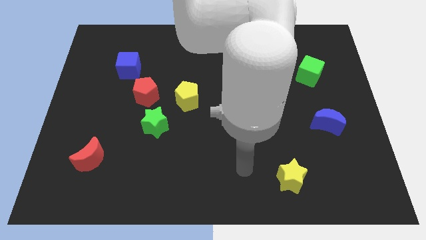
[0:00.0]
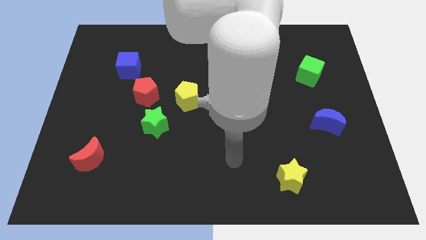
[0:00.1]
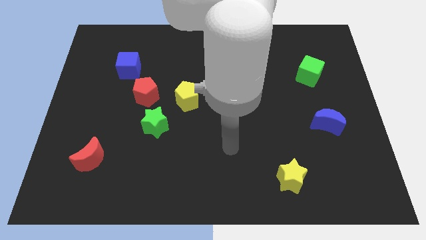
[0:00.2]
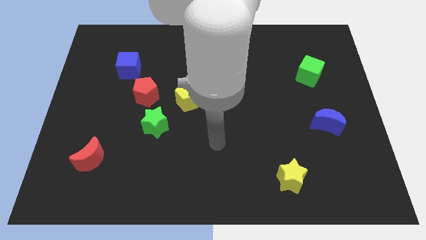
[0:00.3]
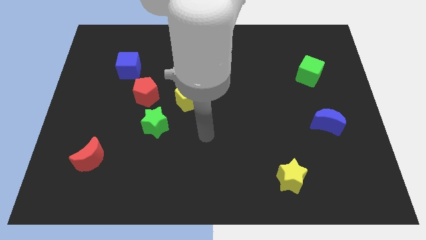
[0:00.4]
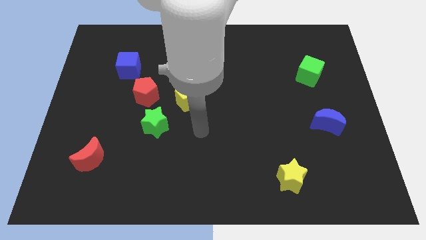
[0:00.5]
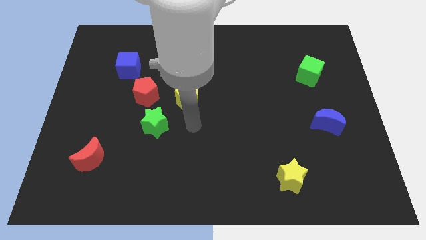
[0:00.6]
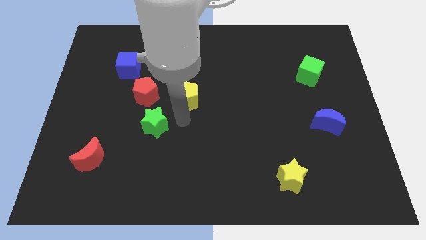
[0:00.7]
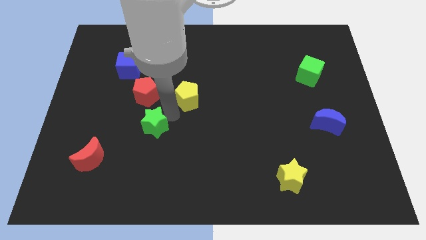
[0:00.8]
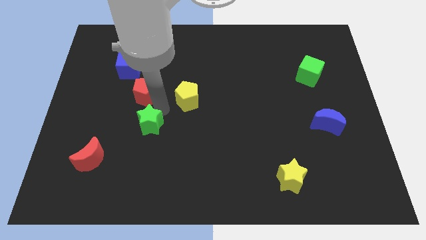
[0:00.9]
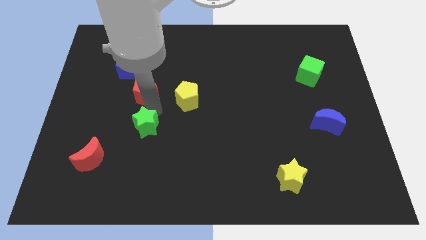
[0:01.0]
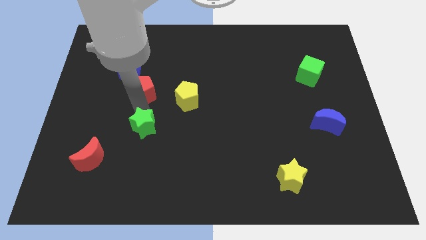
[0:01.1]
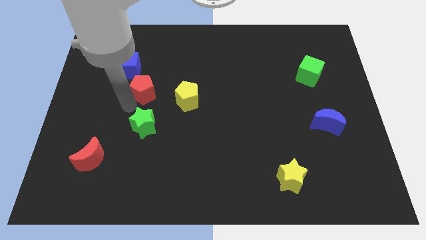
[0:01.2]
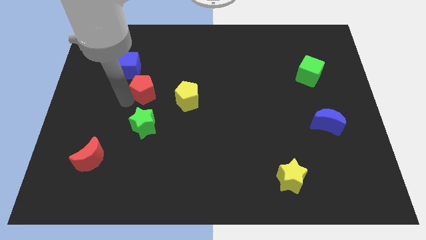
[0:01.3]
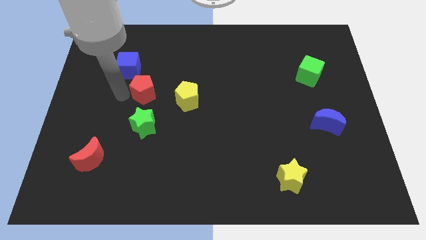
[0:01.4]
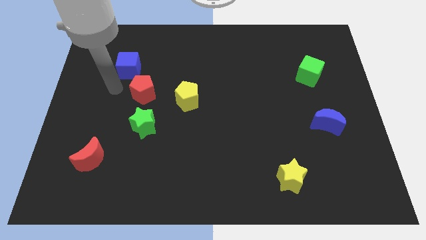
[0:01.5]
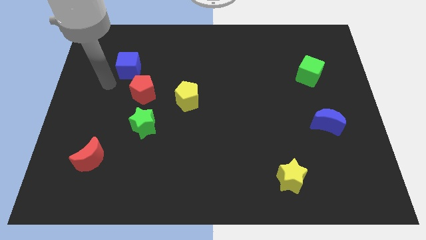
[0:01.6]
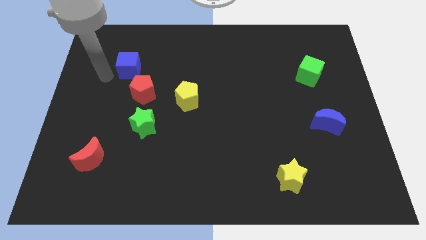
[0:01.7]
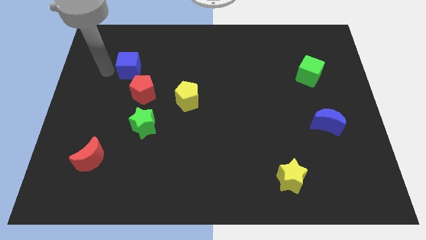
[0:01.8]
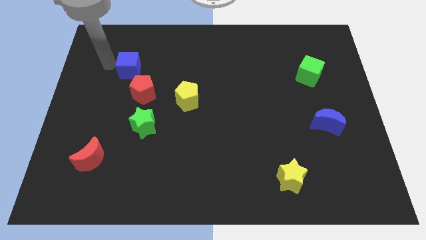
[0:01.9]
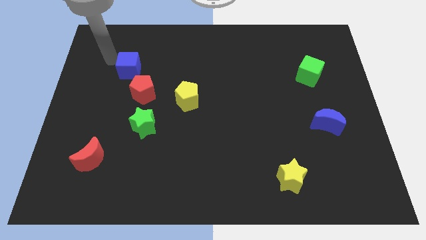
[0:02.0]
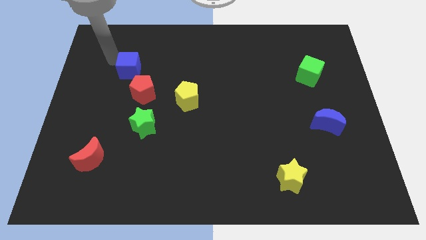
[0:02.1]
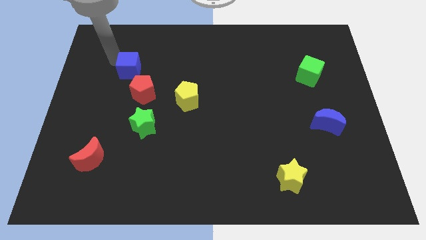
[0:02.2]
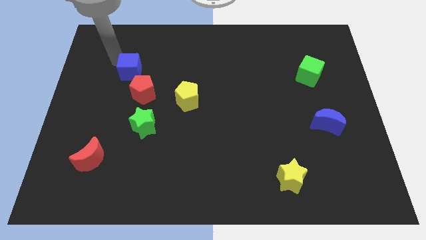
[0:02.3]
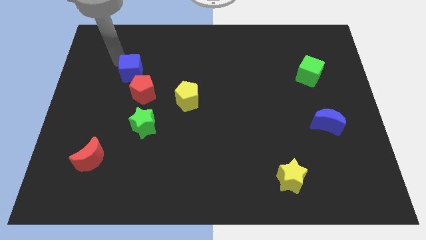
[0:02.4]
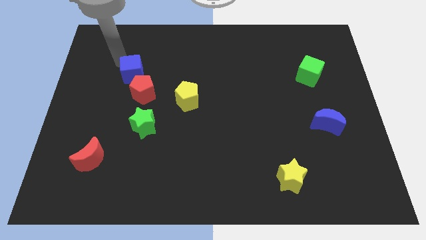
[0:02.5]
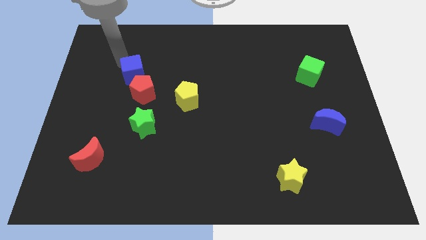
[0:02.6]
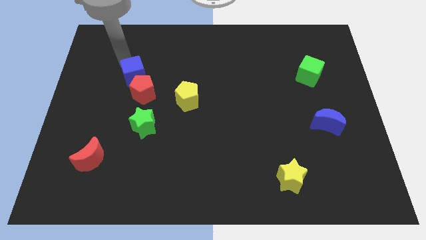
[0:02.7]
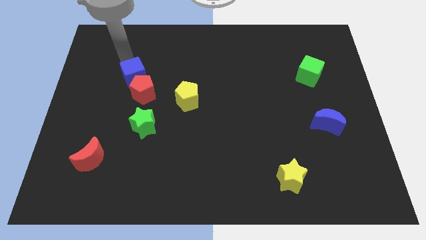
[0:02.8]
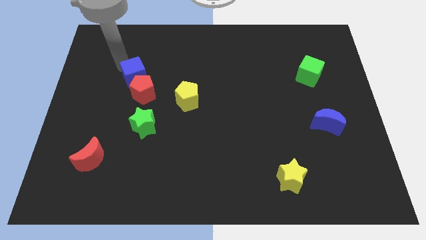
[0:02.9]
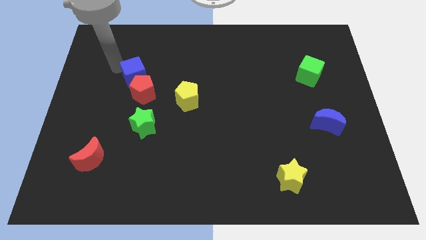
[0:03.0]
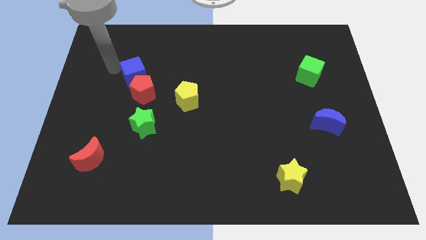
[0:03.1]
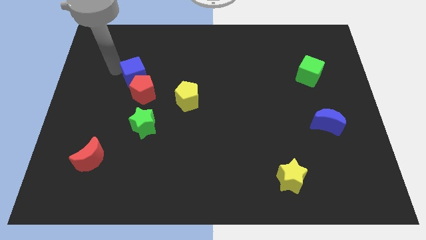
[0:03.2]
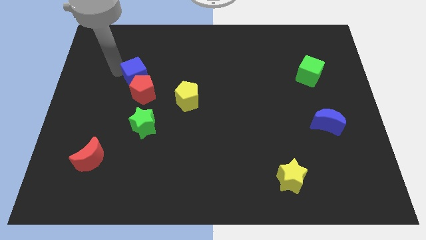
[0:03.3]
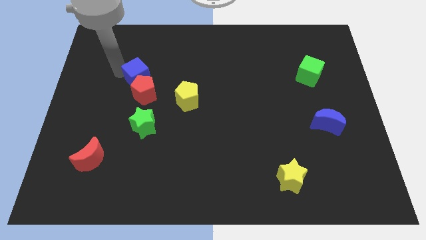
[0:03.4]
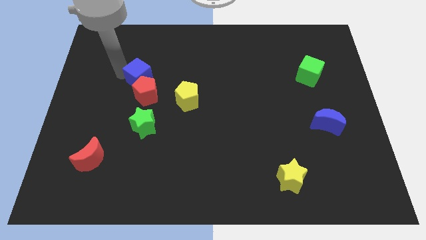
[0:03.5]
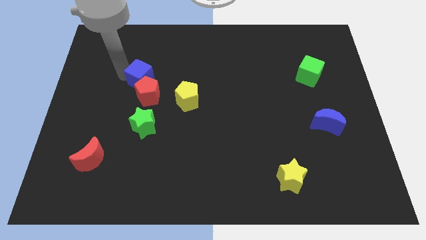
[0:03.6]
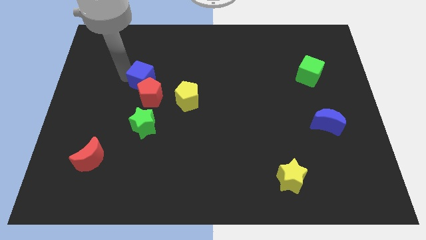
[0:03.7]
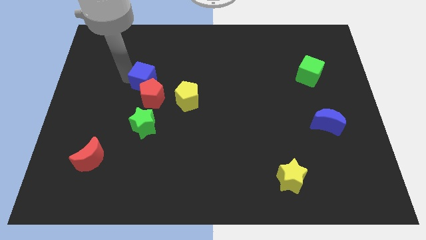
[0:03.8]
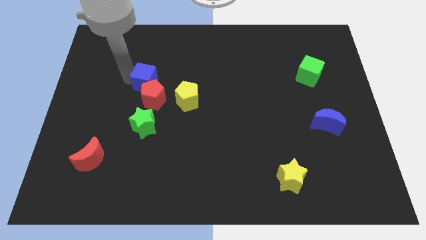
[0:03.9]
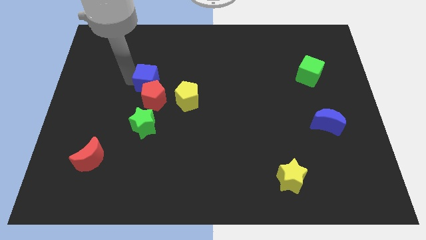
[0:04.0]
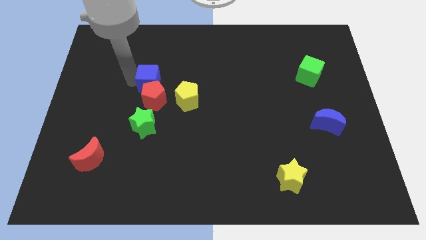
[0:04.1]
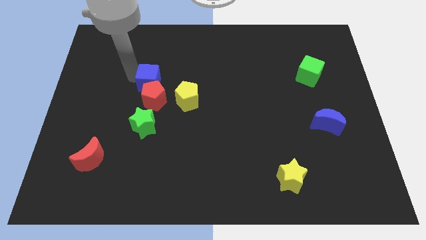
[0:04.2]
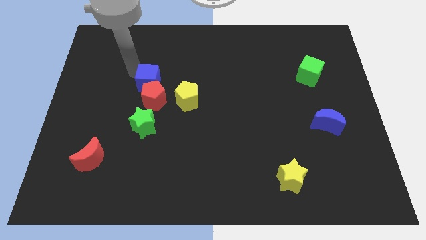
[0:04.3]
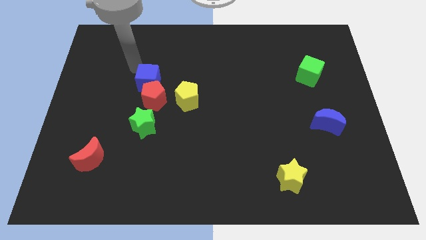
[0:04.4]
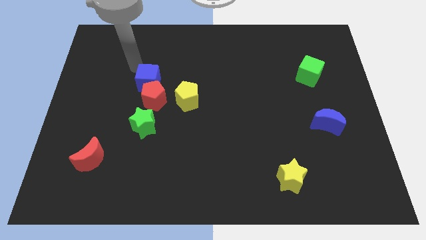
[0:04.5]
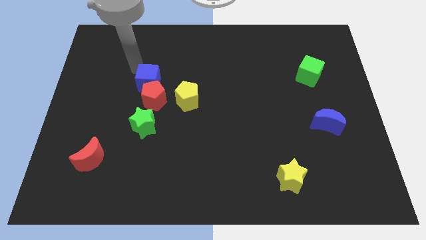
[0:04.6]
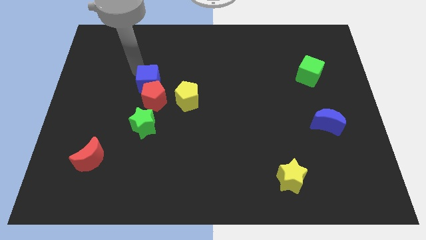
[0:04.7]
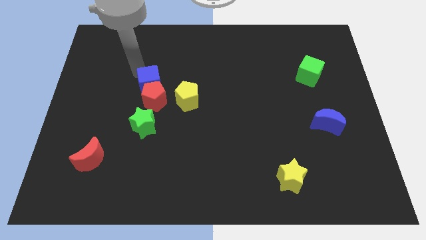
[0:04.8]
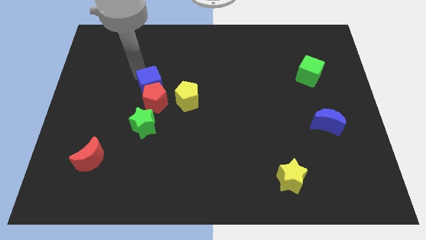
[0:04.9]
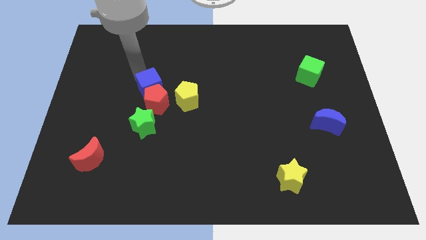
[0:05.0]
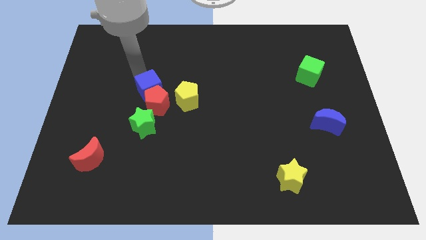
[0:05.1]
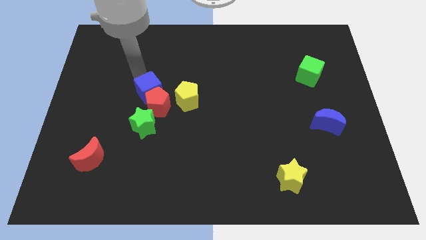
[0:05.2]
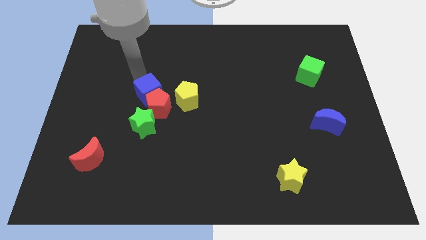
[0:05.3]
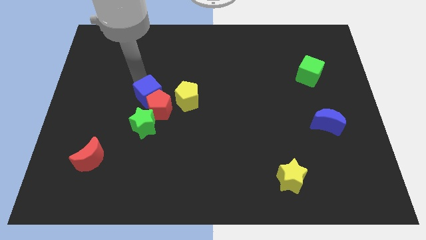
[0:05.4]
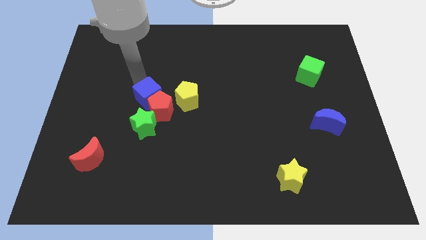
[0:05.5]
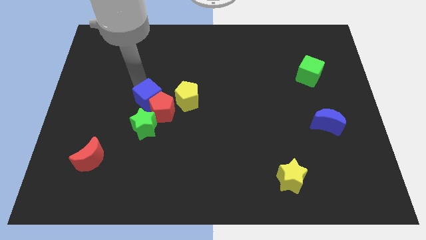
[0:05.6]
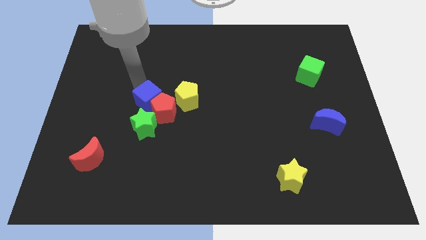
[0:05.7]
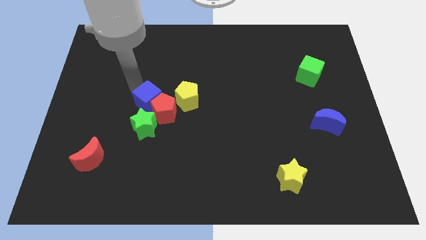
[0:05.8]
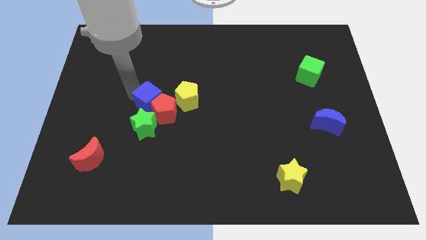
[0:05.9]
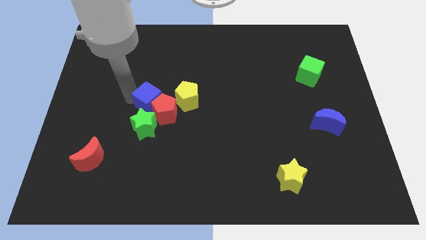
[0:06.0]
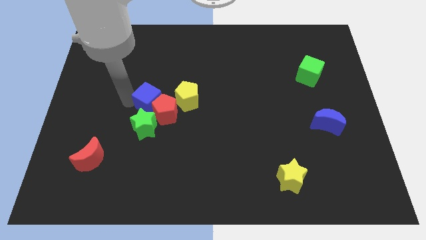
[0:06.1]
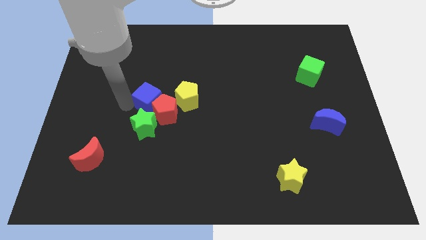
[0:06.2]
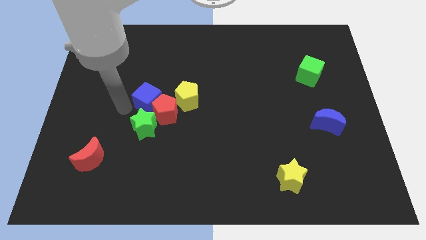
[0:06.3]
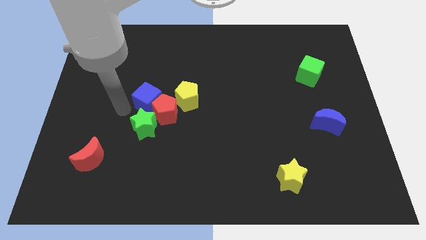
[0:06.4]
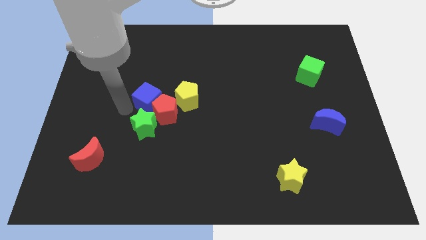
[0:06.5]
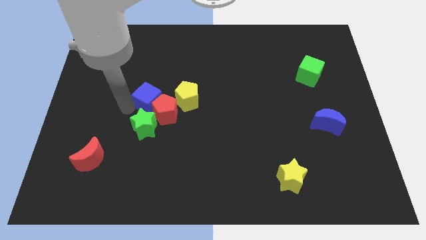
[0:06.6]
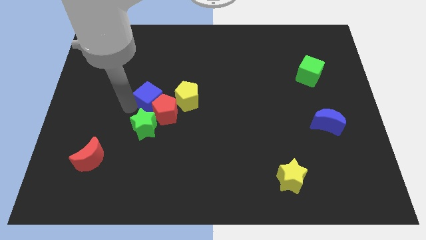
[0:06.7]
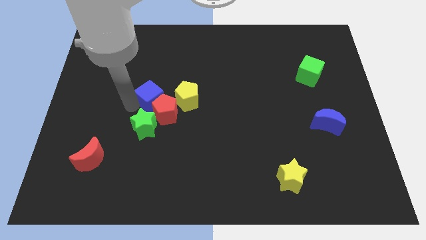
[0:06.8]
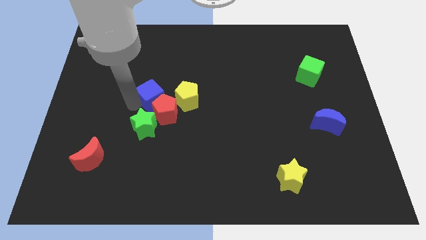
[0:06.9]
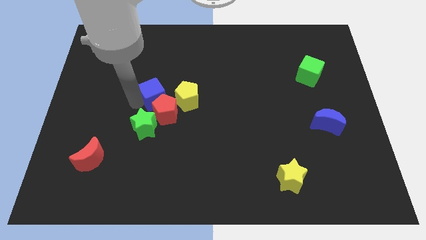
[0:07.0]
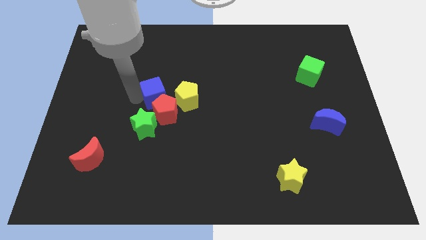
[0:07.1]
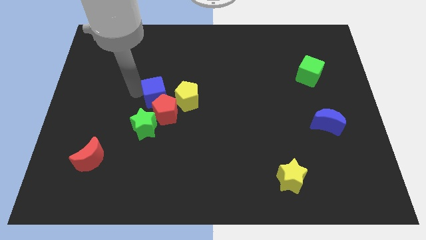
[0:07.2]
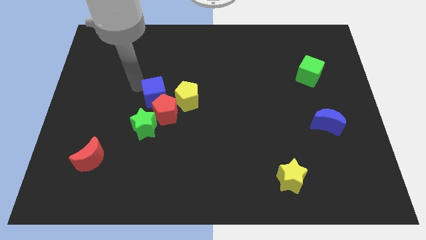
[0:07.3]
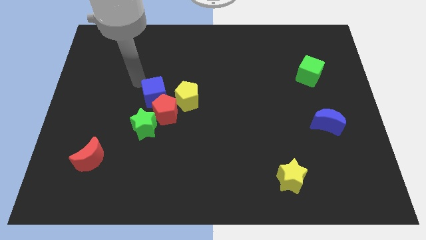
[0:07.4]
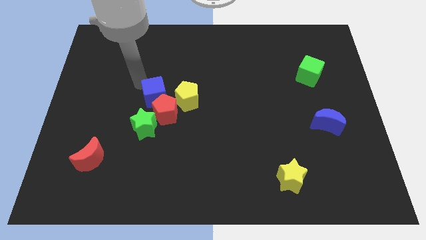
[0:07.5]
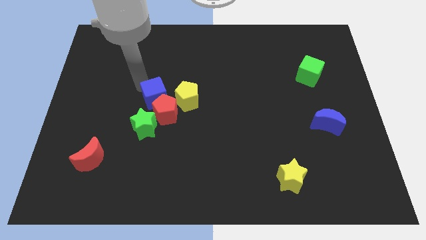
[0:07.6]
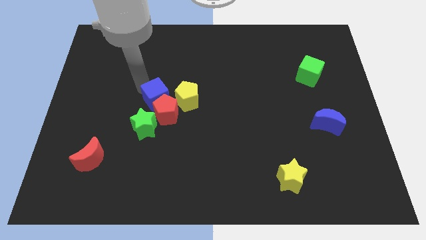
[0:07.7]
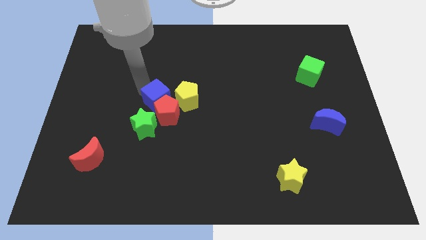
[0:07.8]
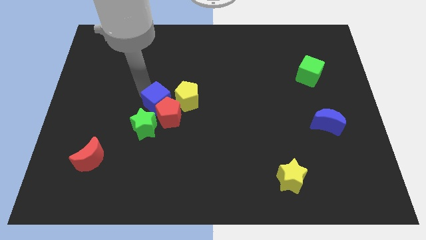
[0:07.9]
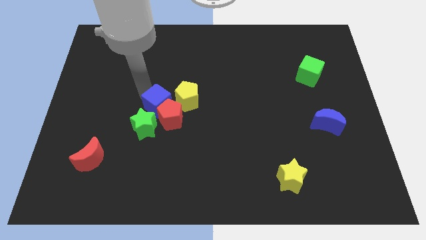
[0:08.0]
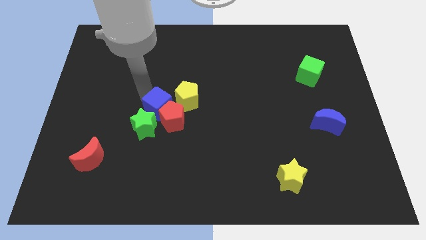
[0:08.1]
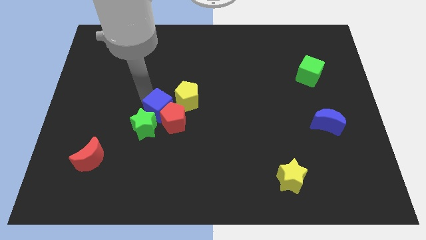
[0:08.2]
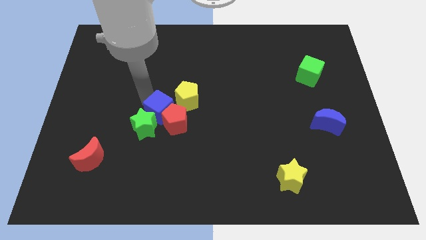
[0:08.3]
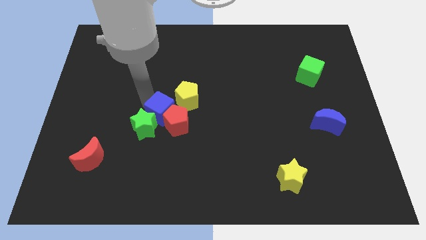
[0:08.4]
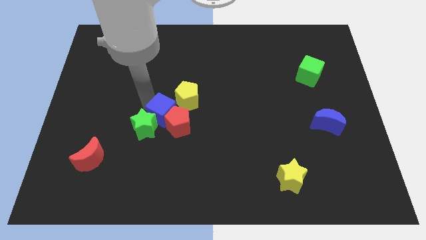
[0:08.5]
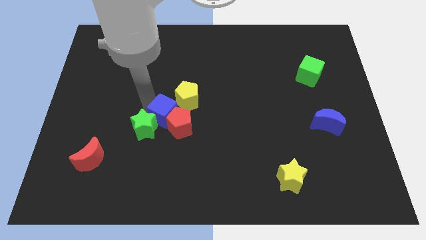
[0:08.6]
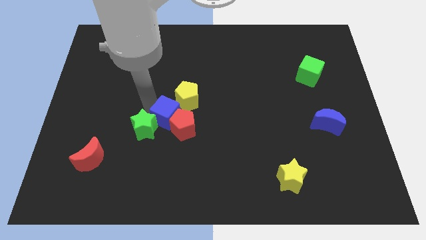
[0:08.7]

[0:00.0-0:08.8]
put the blue cube below the yellow pentagon
